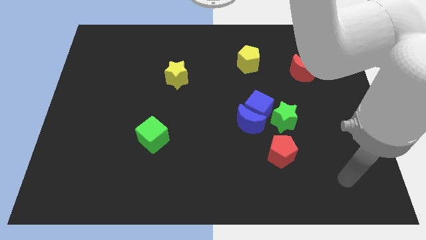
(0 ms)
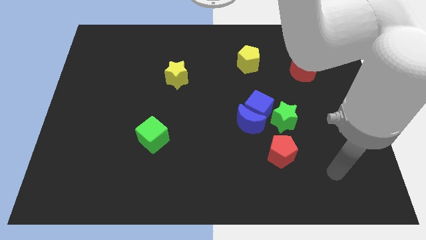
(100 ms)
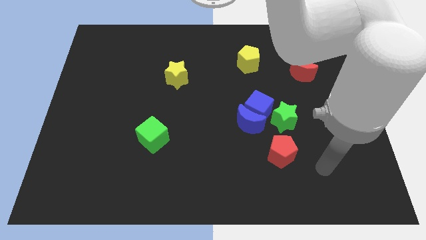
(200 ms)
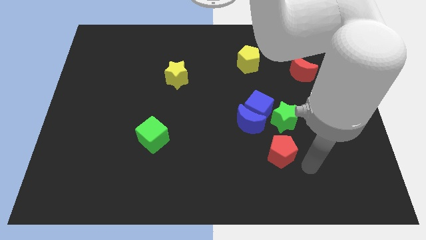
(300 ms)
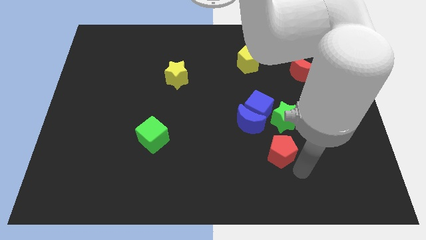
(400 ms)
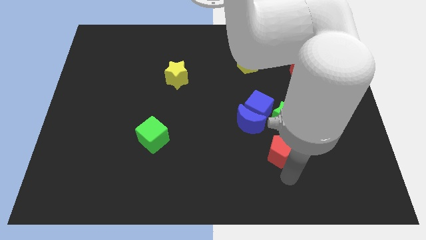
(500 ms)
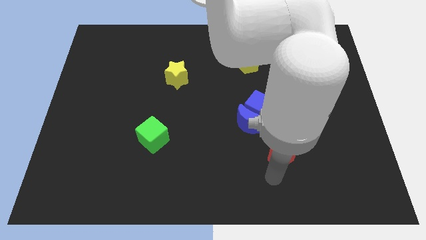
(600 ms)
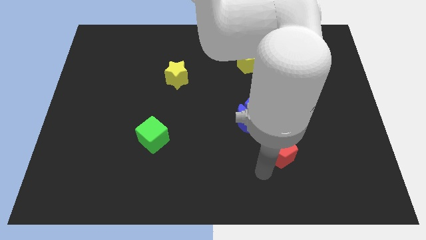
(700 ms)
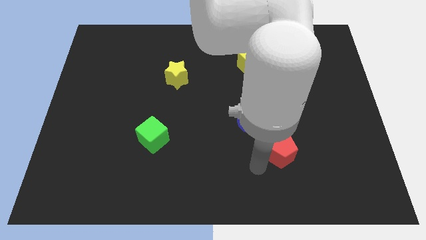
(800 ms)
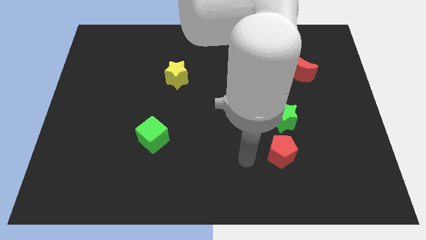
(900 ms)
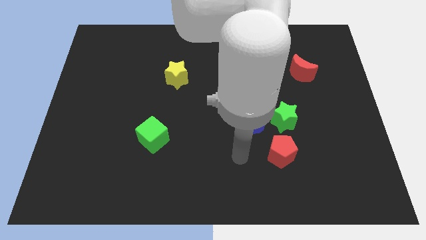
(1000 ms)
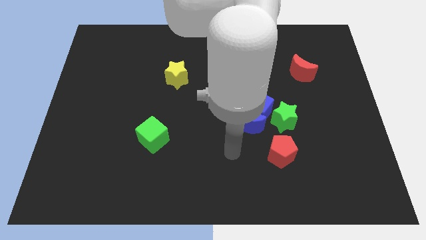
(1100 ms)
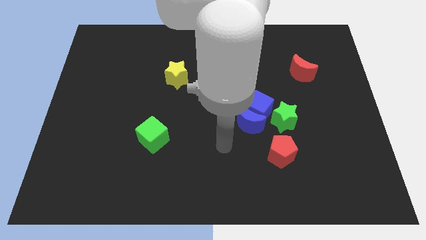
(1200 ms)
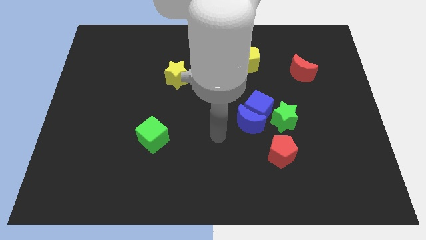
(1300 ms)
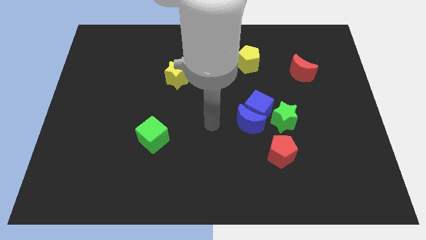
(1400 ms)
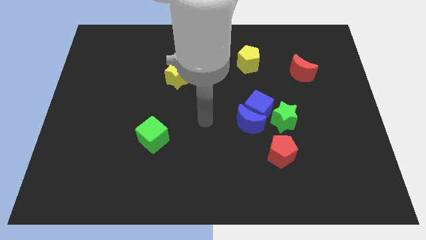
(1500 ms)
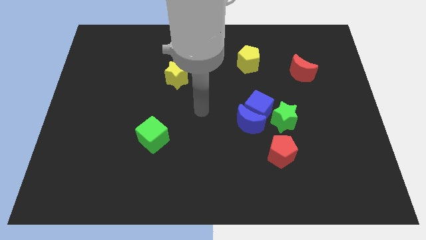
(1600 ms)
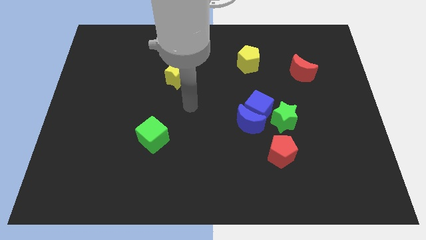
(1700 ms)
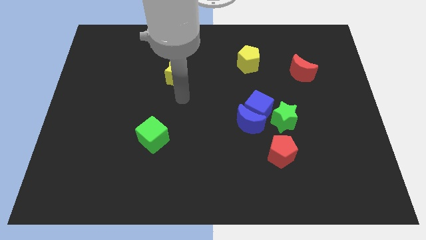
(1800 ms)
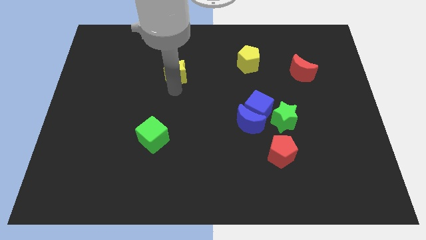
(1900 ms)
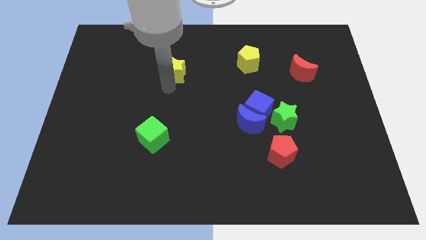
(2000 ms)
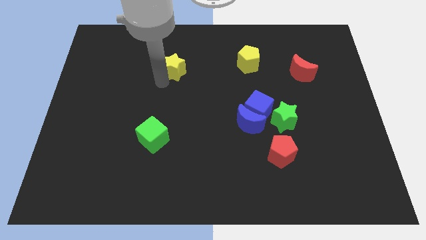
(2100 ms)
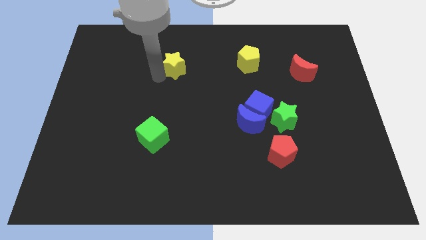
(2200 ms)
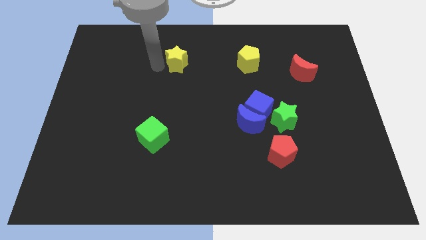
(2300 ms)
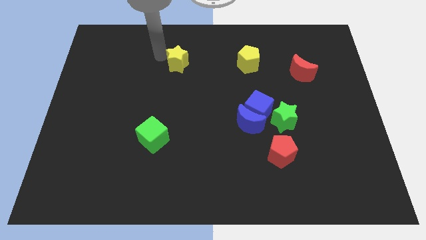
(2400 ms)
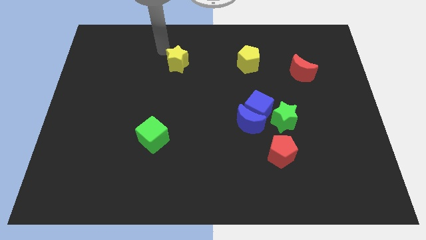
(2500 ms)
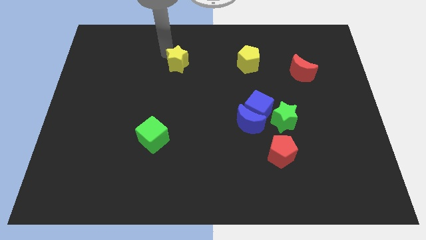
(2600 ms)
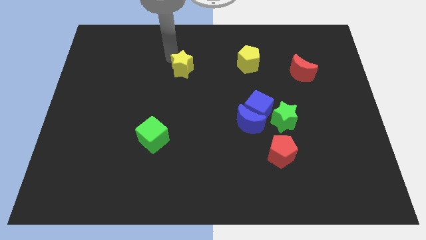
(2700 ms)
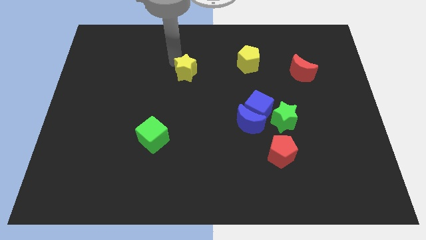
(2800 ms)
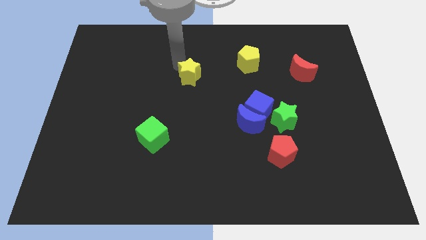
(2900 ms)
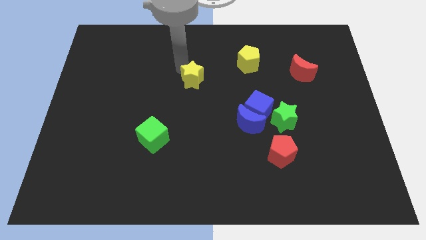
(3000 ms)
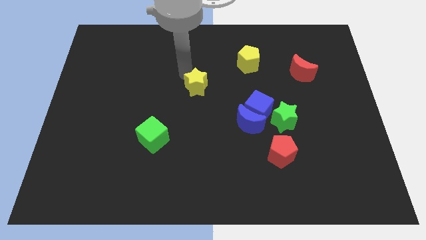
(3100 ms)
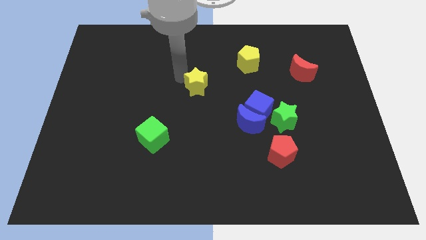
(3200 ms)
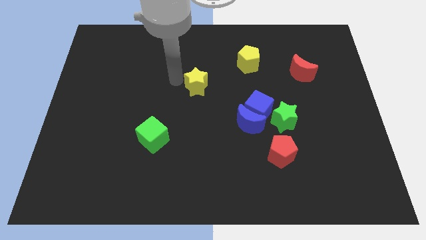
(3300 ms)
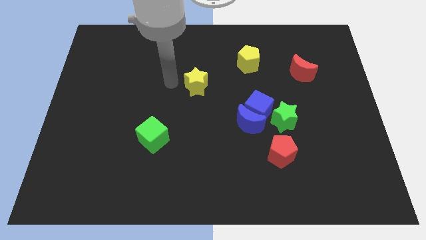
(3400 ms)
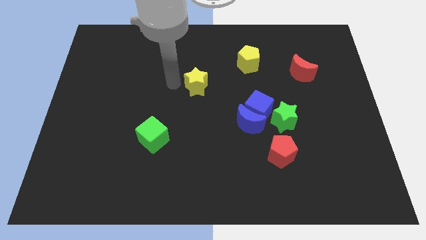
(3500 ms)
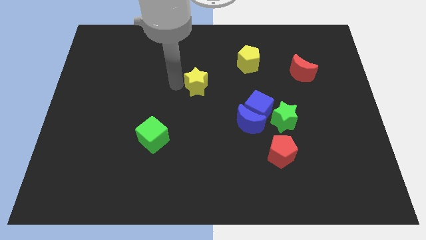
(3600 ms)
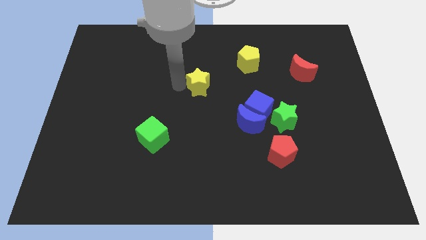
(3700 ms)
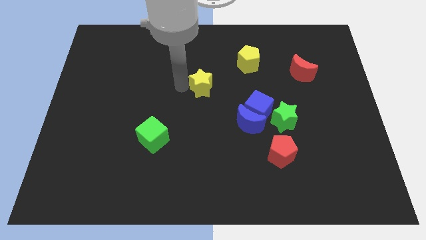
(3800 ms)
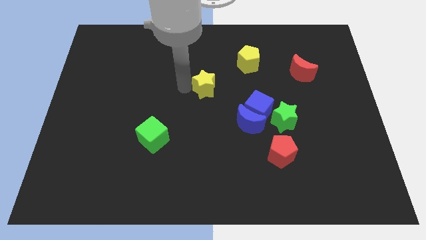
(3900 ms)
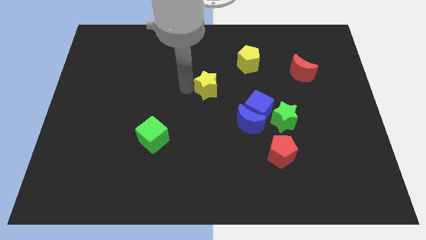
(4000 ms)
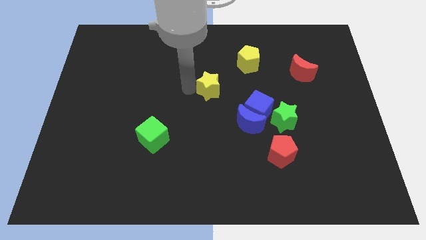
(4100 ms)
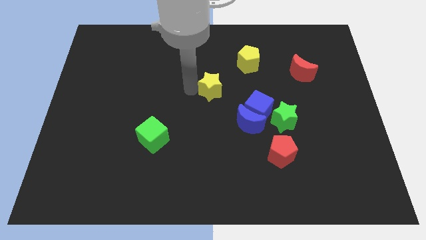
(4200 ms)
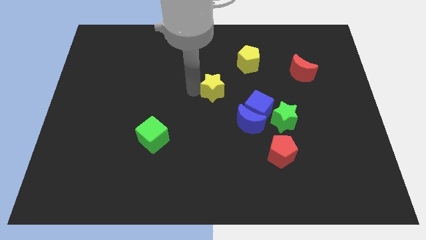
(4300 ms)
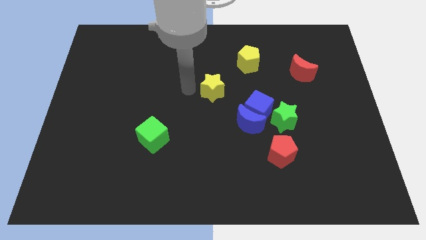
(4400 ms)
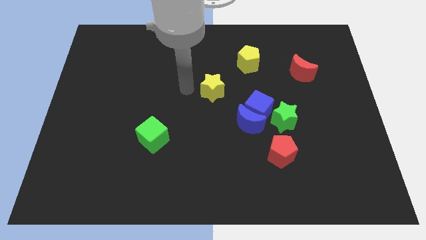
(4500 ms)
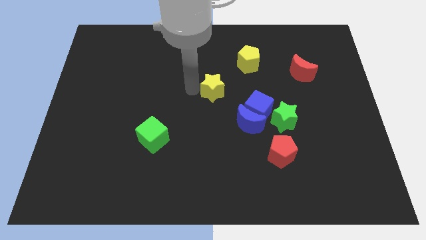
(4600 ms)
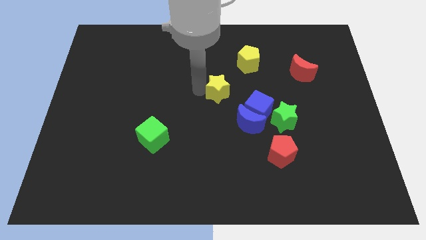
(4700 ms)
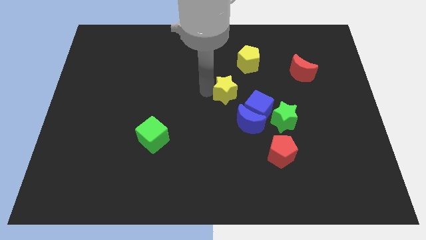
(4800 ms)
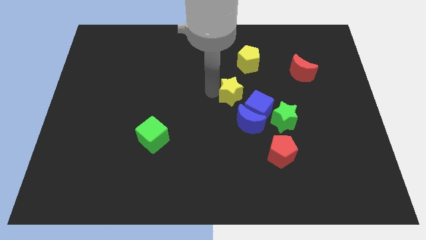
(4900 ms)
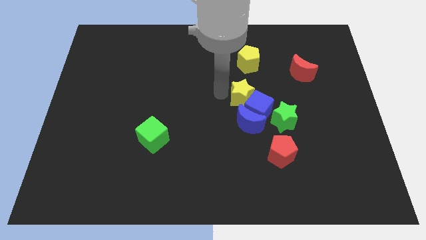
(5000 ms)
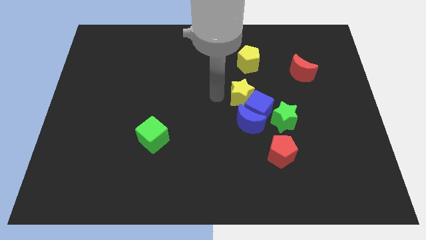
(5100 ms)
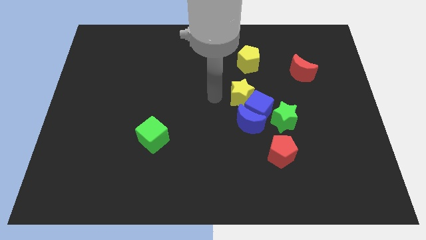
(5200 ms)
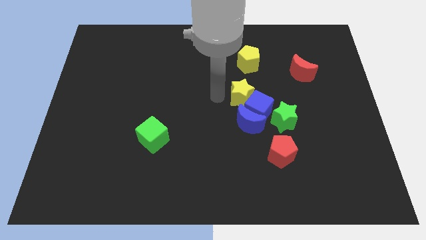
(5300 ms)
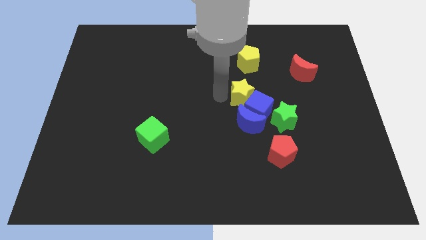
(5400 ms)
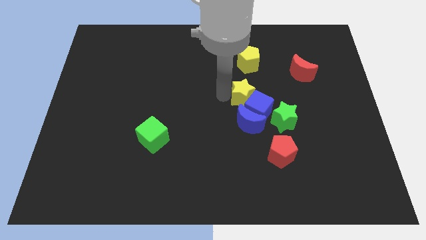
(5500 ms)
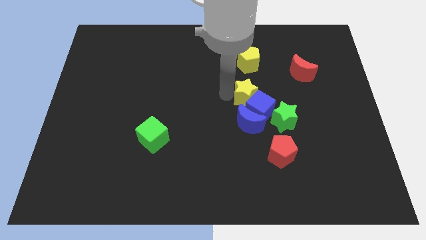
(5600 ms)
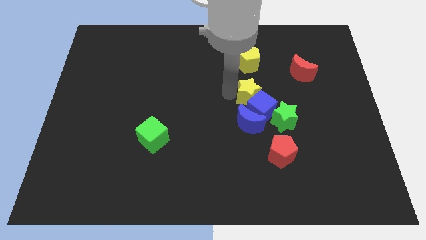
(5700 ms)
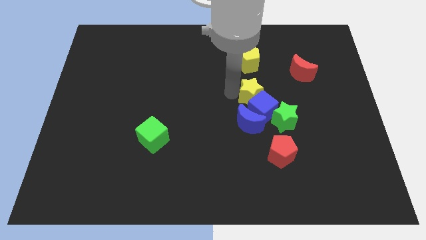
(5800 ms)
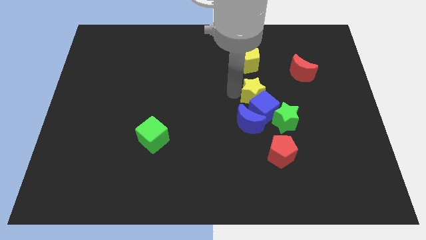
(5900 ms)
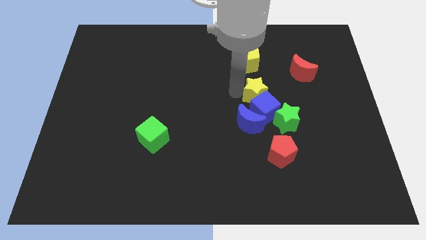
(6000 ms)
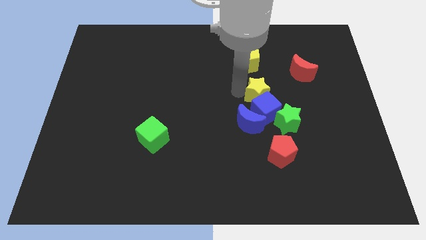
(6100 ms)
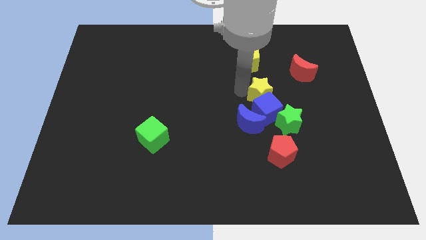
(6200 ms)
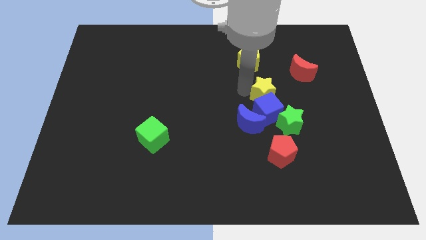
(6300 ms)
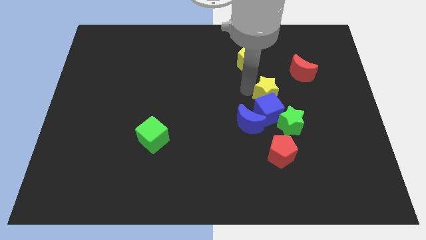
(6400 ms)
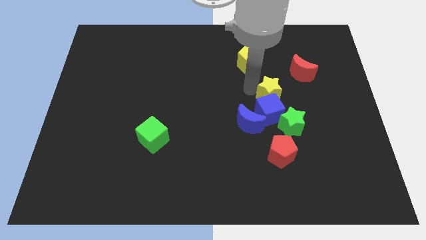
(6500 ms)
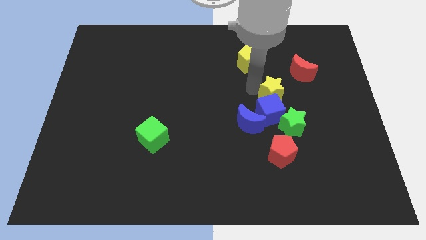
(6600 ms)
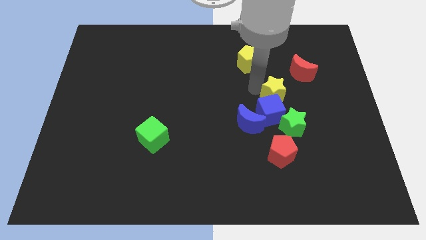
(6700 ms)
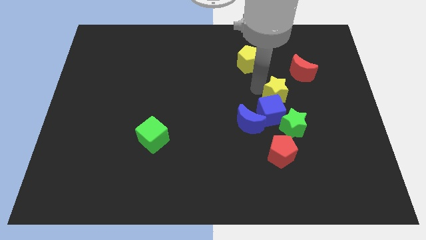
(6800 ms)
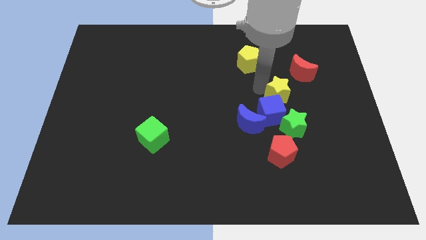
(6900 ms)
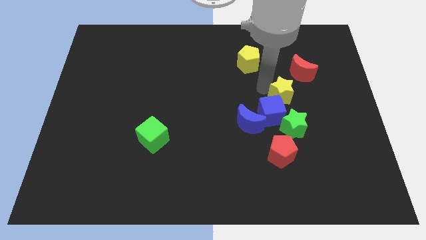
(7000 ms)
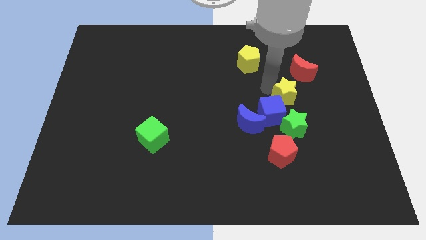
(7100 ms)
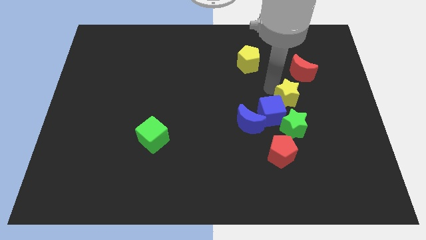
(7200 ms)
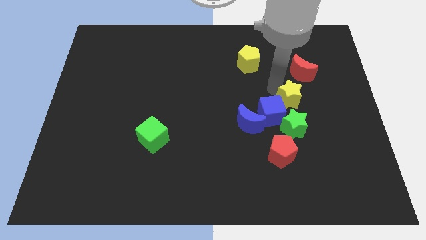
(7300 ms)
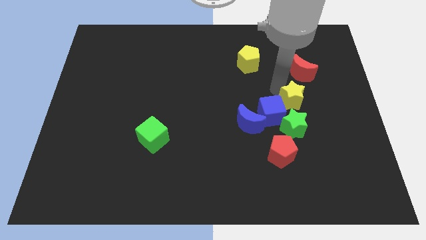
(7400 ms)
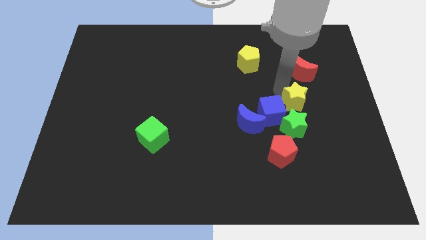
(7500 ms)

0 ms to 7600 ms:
put the yellow star to the top right of the green star
